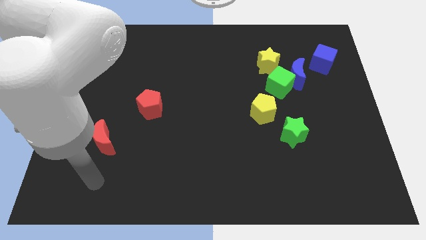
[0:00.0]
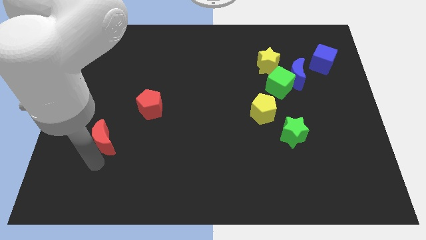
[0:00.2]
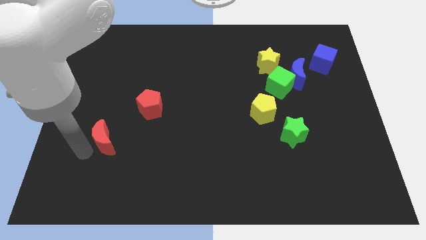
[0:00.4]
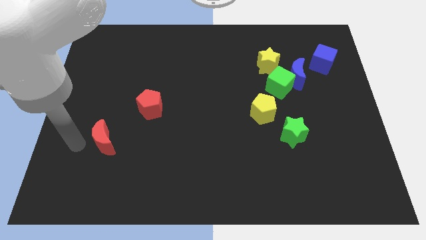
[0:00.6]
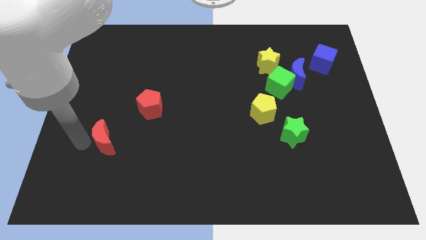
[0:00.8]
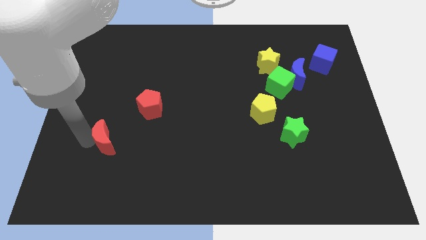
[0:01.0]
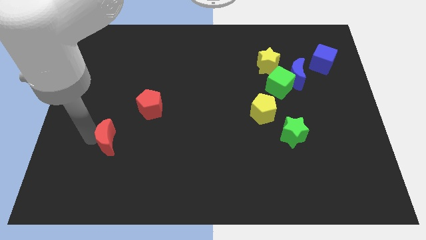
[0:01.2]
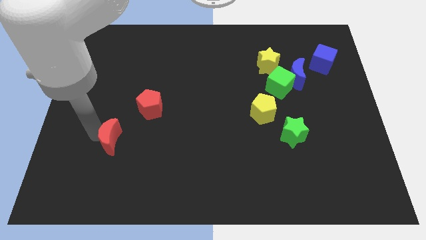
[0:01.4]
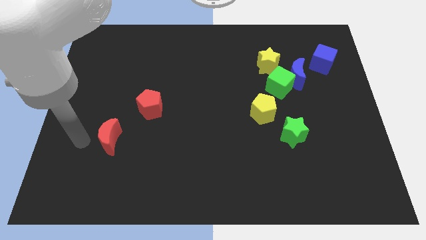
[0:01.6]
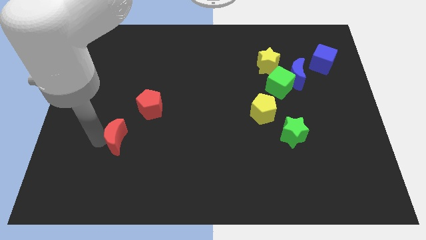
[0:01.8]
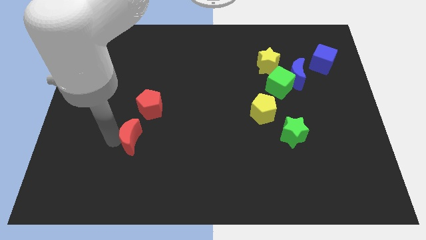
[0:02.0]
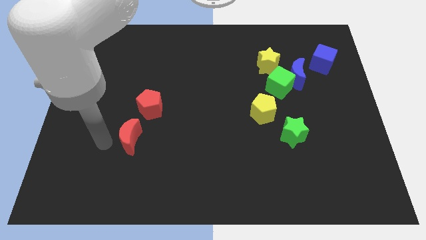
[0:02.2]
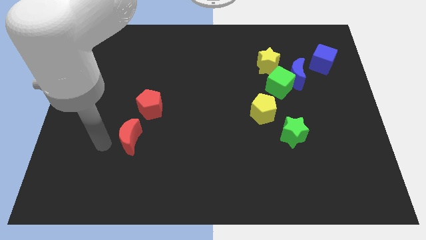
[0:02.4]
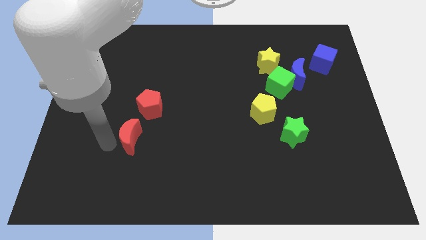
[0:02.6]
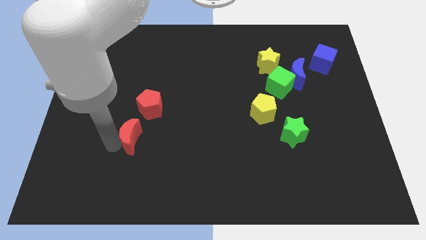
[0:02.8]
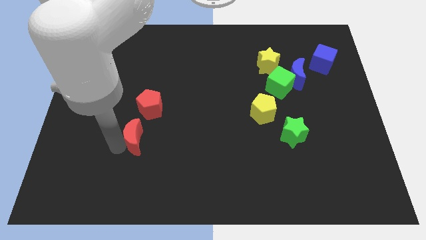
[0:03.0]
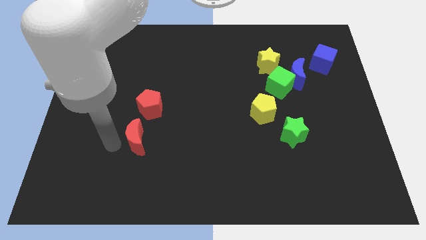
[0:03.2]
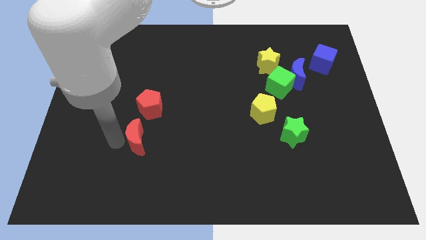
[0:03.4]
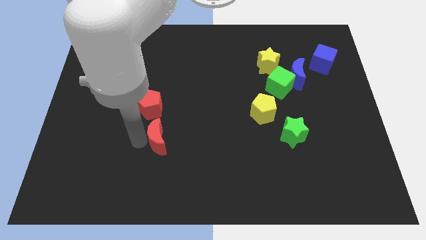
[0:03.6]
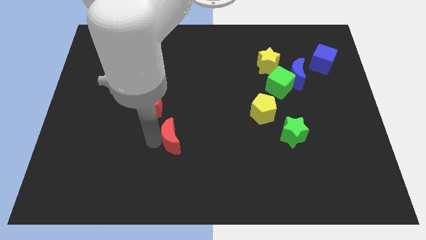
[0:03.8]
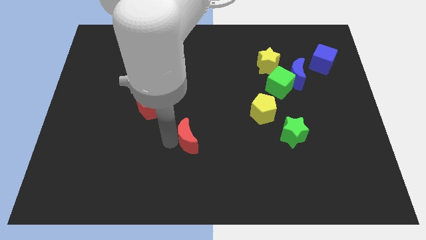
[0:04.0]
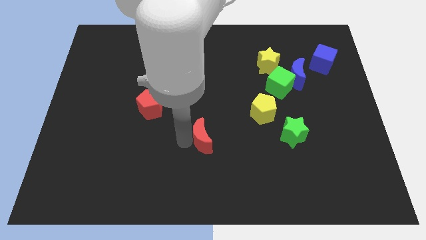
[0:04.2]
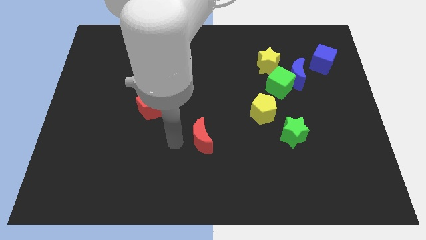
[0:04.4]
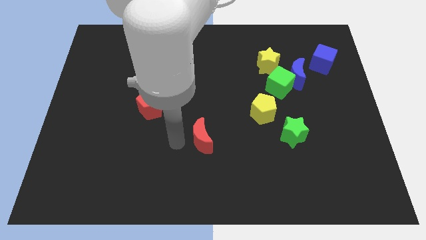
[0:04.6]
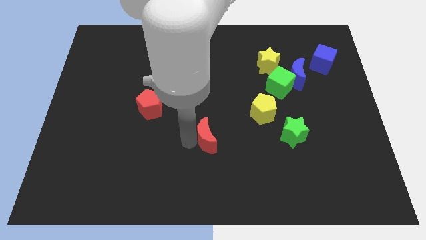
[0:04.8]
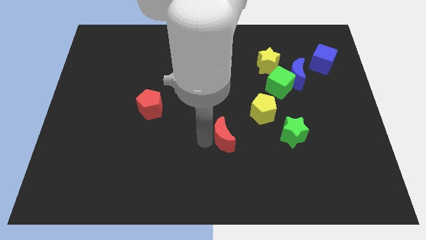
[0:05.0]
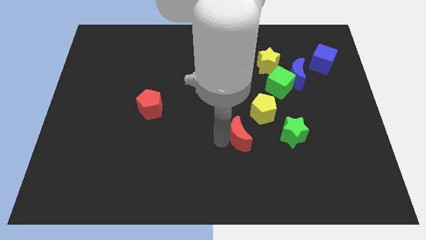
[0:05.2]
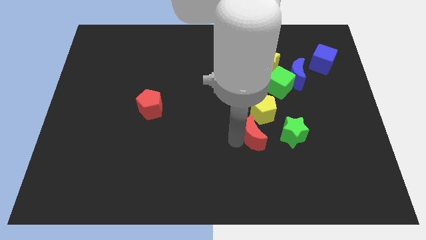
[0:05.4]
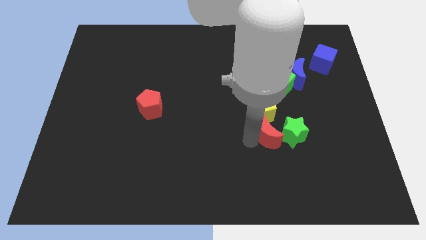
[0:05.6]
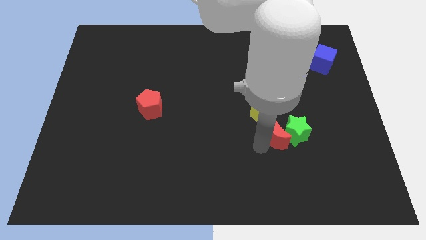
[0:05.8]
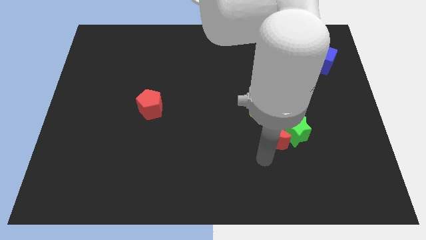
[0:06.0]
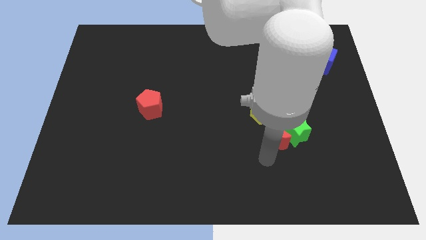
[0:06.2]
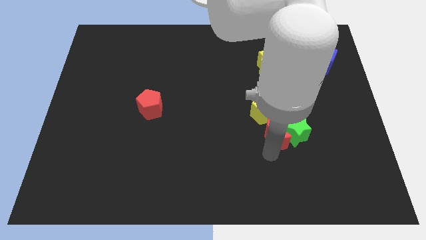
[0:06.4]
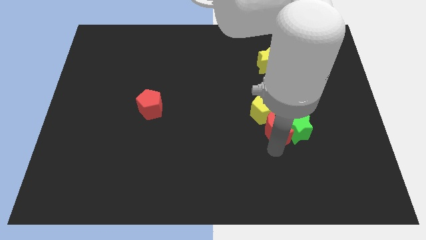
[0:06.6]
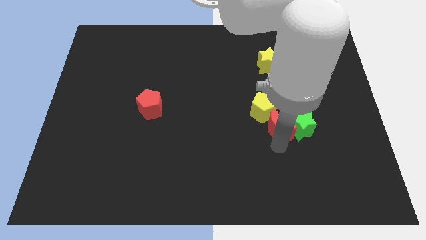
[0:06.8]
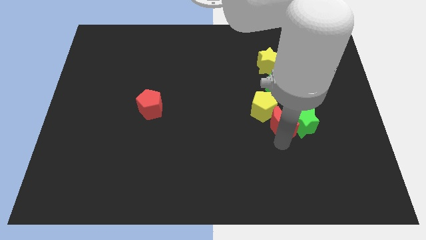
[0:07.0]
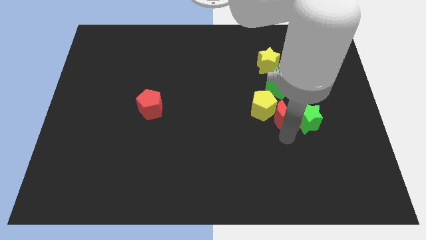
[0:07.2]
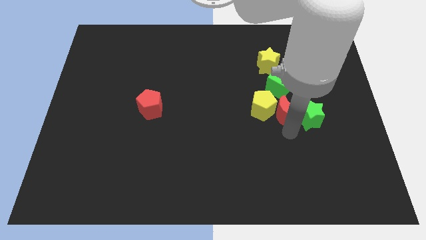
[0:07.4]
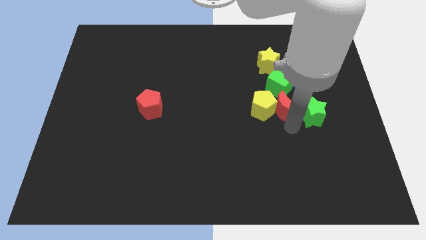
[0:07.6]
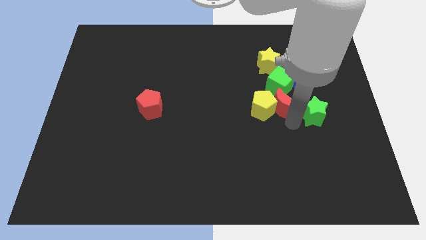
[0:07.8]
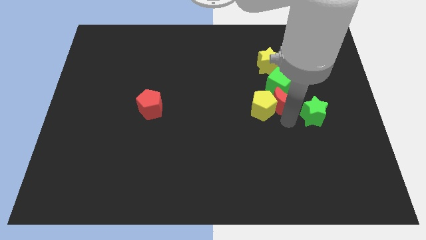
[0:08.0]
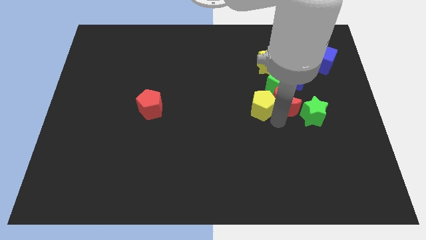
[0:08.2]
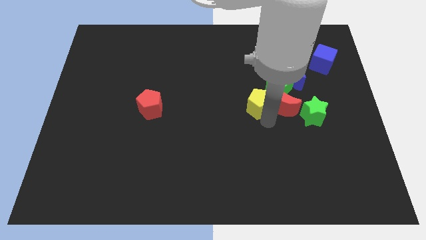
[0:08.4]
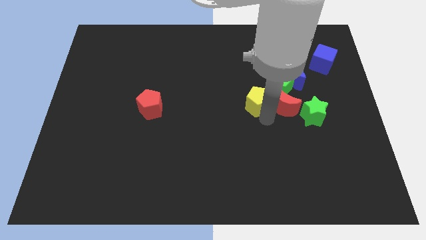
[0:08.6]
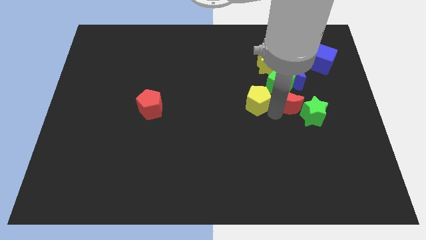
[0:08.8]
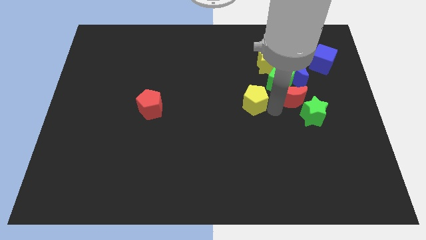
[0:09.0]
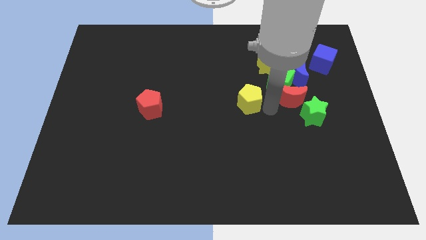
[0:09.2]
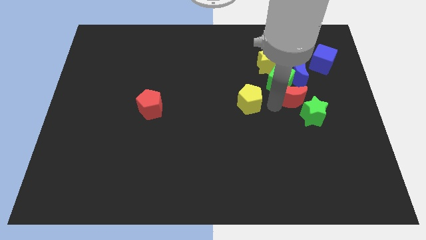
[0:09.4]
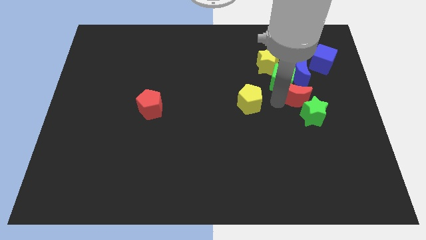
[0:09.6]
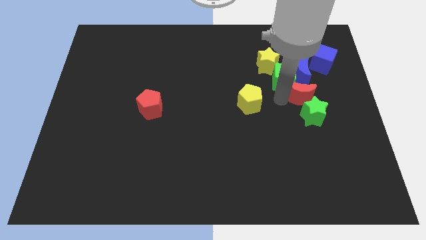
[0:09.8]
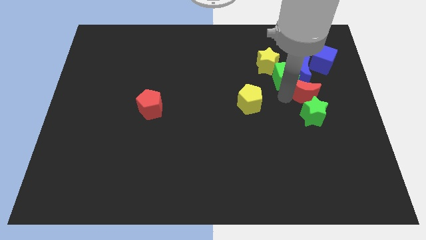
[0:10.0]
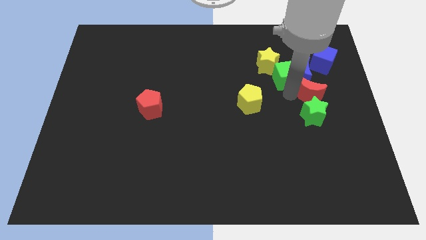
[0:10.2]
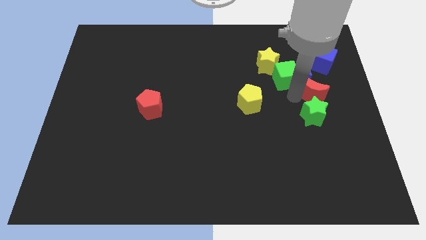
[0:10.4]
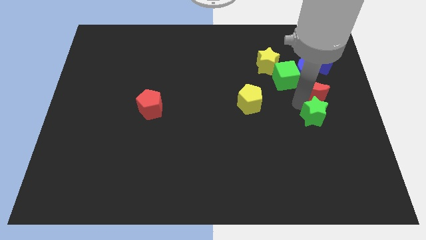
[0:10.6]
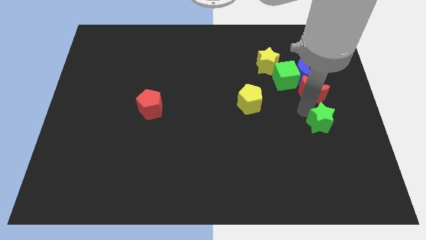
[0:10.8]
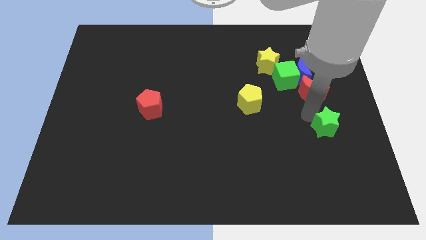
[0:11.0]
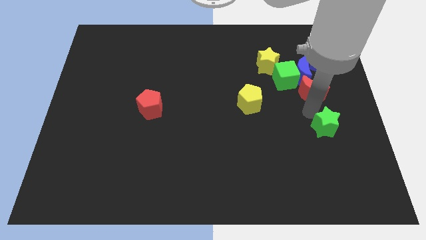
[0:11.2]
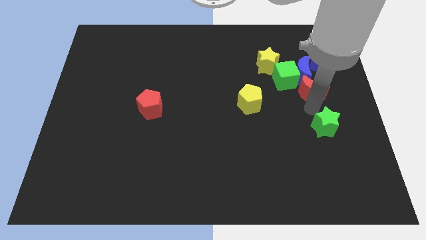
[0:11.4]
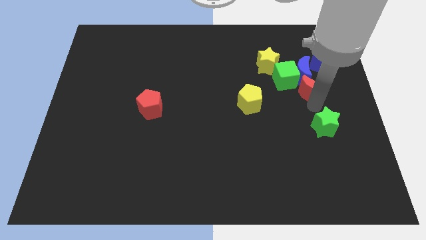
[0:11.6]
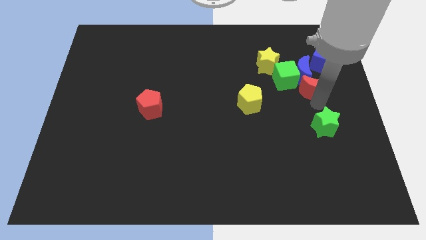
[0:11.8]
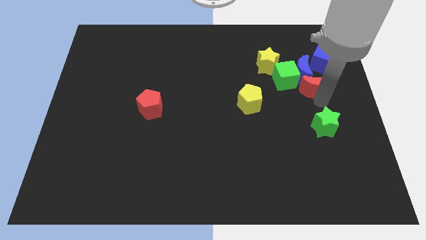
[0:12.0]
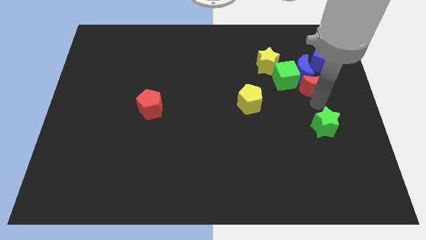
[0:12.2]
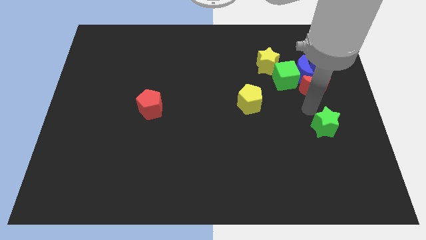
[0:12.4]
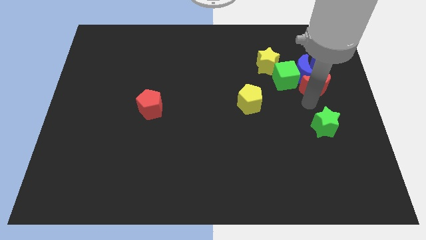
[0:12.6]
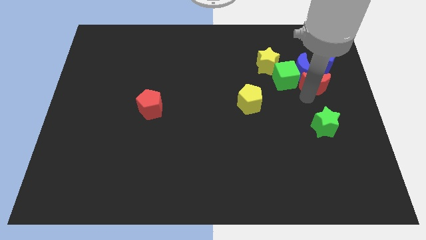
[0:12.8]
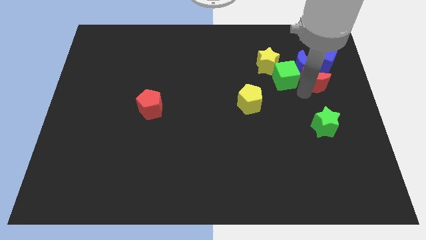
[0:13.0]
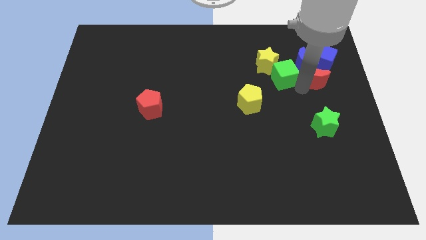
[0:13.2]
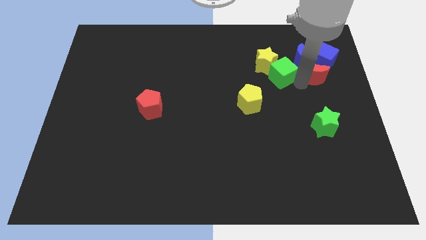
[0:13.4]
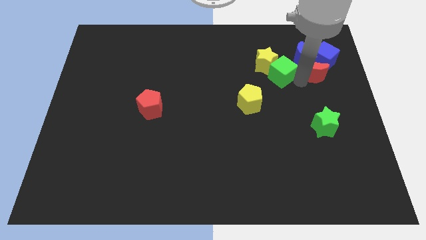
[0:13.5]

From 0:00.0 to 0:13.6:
slide the red moon close to the blue cube
